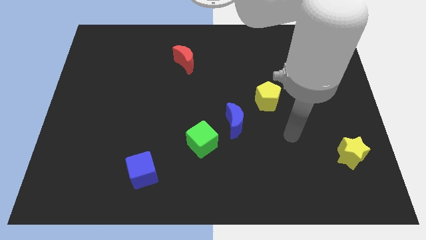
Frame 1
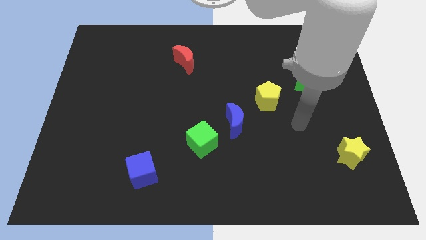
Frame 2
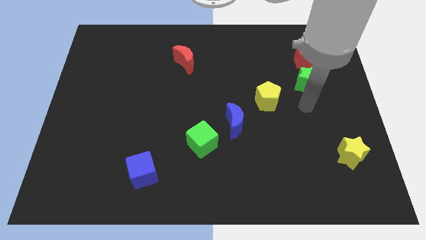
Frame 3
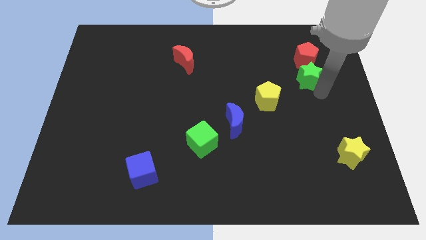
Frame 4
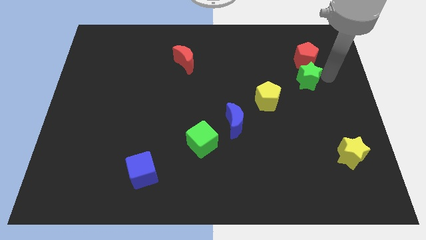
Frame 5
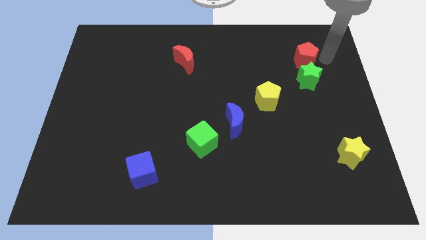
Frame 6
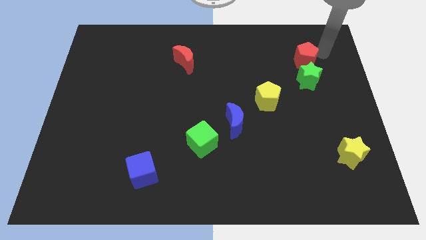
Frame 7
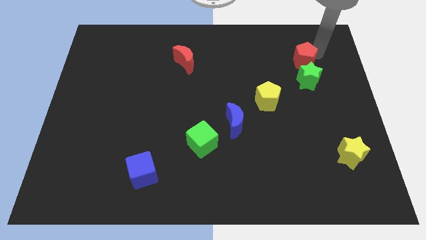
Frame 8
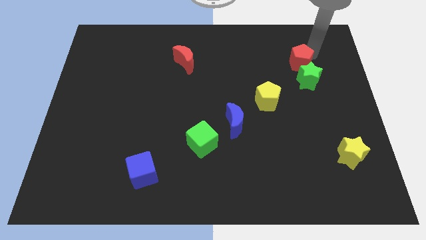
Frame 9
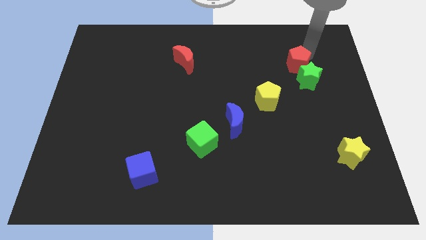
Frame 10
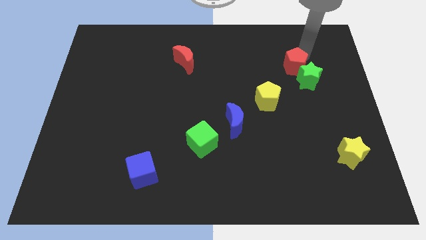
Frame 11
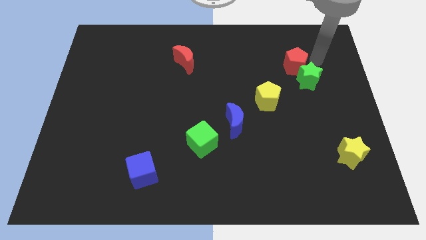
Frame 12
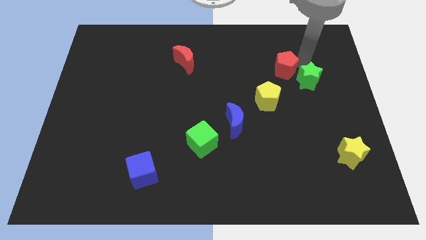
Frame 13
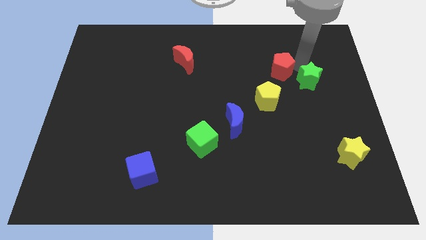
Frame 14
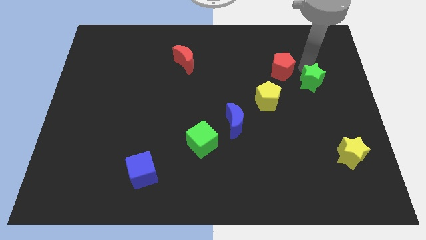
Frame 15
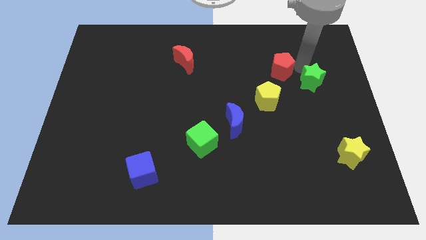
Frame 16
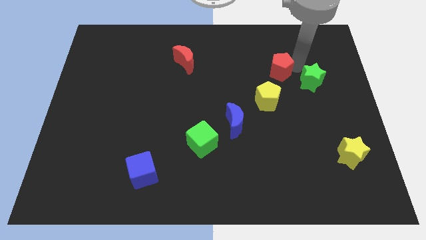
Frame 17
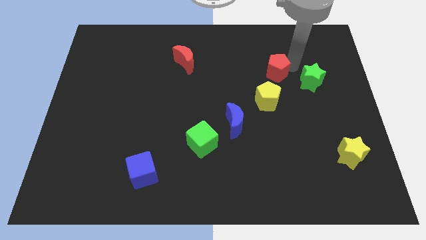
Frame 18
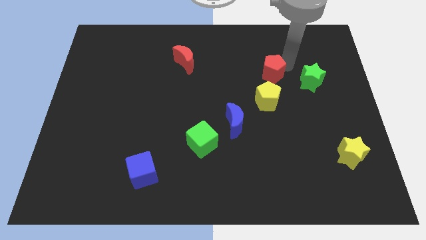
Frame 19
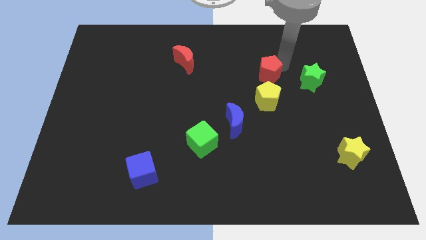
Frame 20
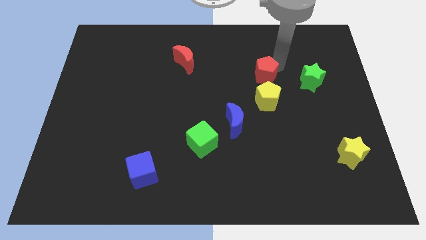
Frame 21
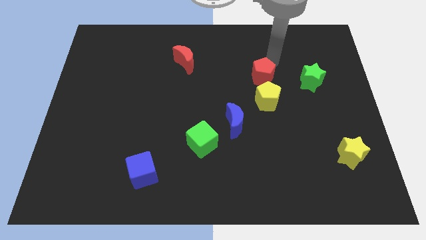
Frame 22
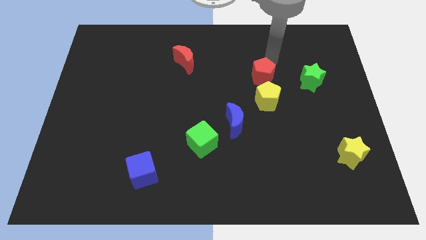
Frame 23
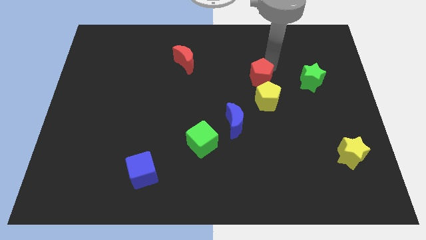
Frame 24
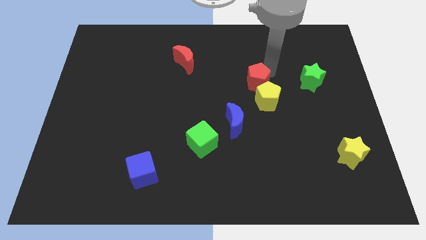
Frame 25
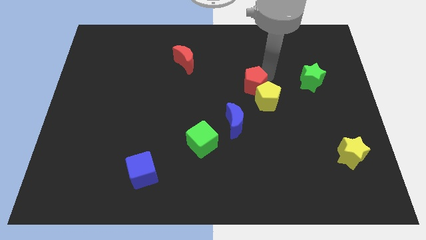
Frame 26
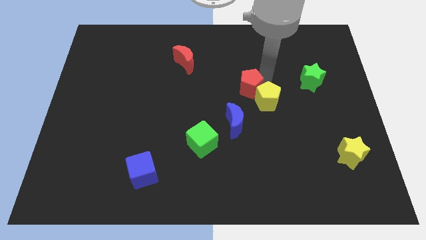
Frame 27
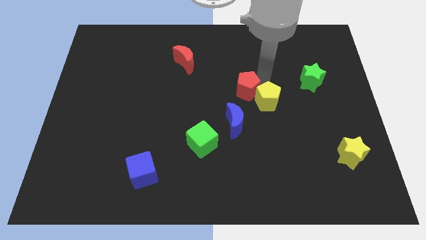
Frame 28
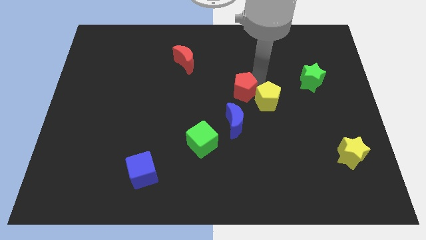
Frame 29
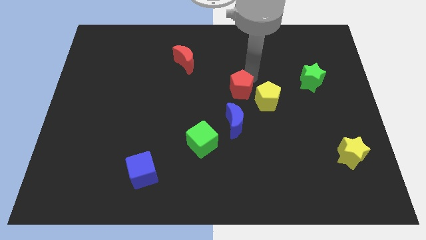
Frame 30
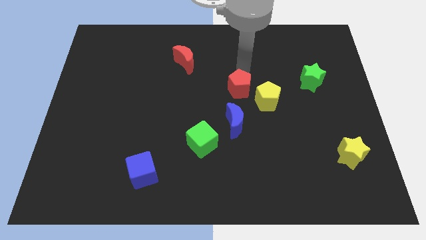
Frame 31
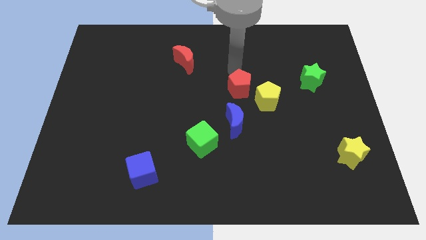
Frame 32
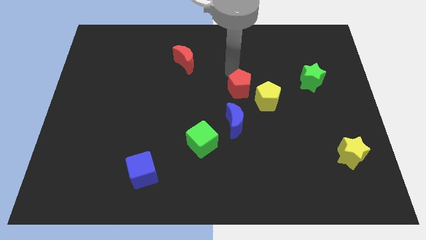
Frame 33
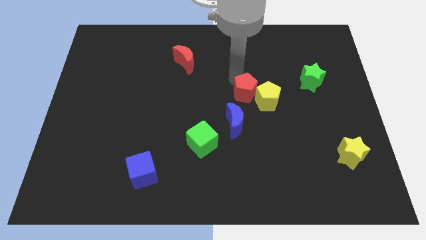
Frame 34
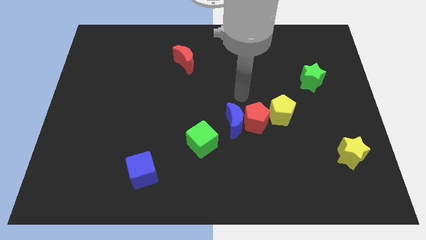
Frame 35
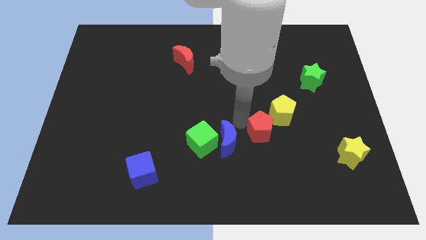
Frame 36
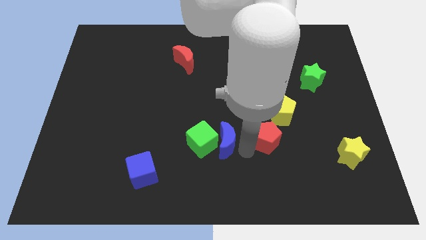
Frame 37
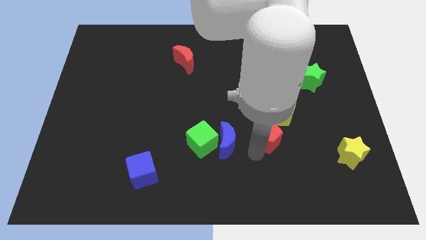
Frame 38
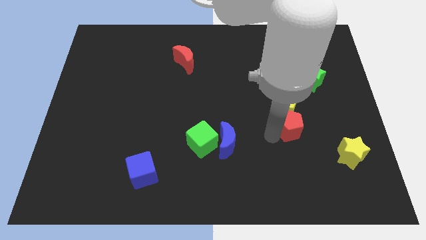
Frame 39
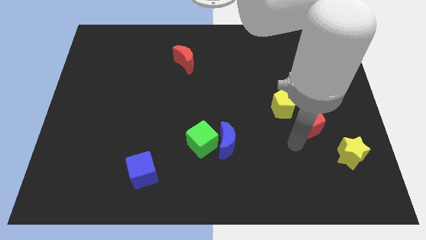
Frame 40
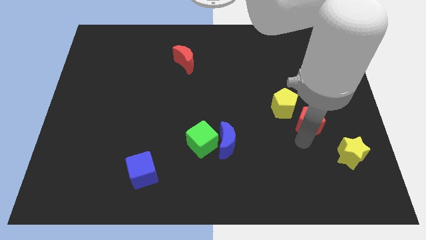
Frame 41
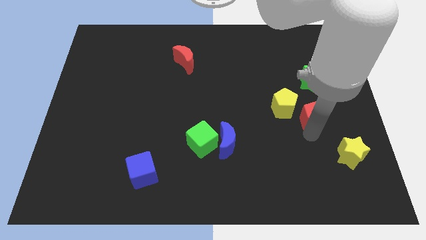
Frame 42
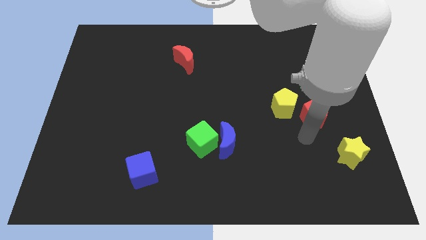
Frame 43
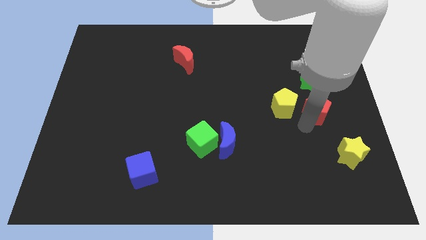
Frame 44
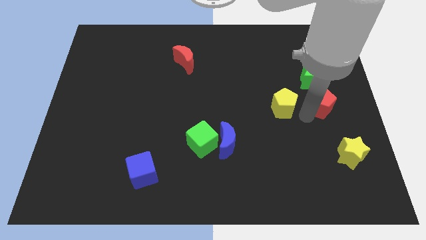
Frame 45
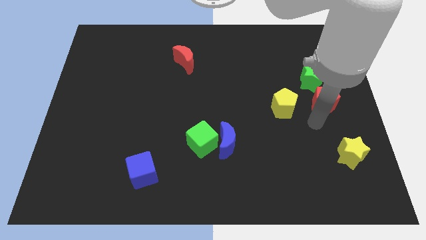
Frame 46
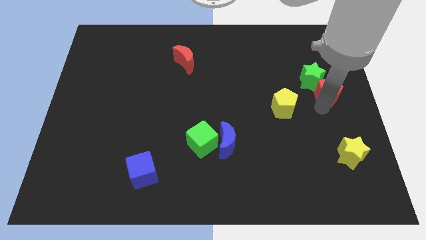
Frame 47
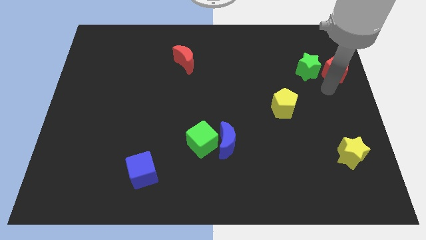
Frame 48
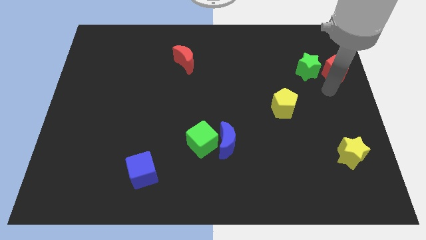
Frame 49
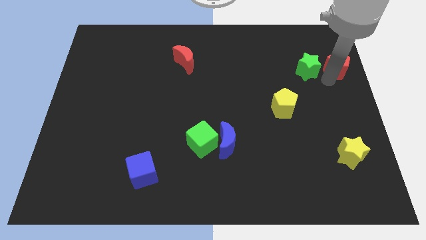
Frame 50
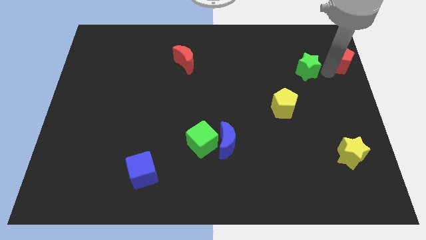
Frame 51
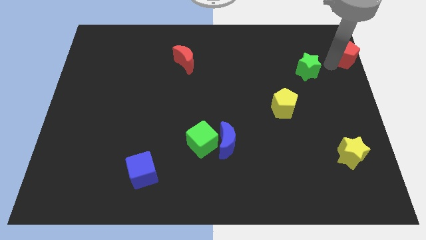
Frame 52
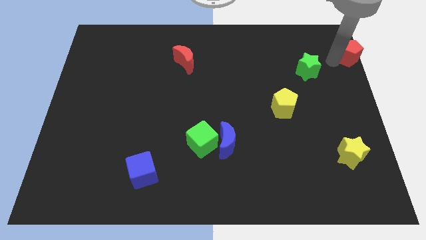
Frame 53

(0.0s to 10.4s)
push the red pentagon to the top right corner

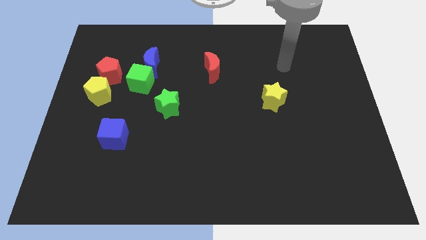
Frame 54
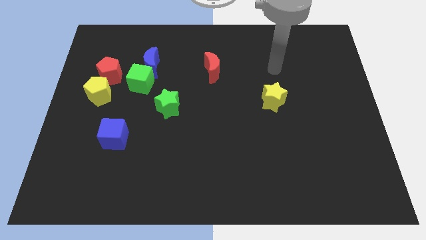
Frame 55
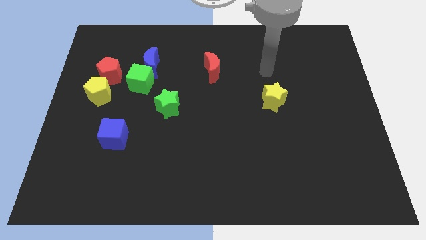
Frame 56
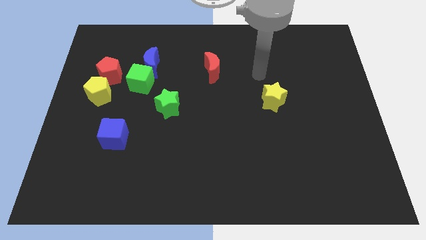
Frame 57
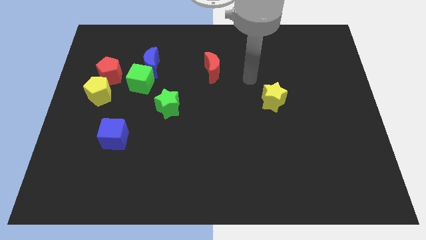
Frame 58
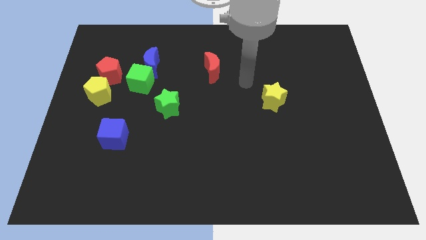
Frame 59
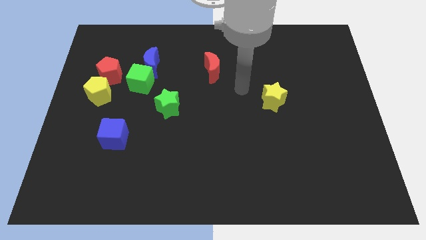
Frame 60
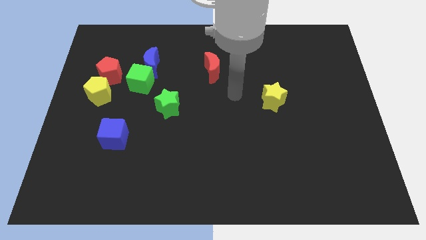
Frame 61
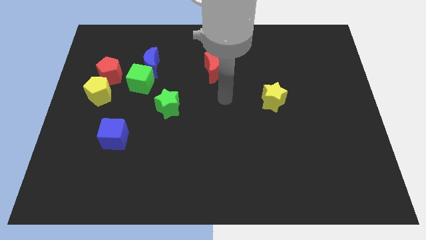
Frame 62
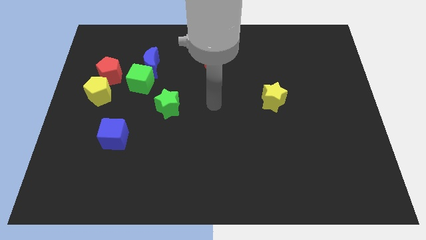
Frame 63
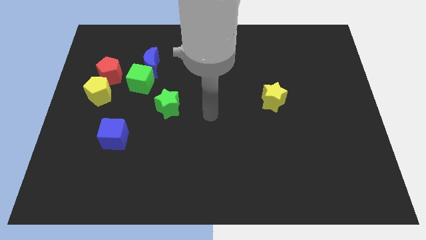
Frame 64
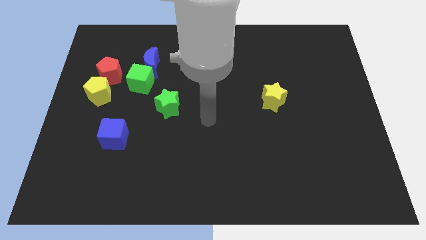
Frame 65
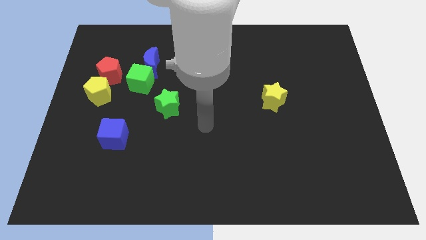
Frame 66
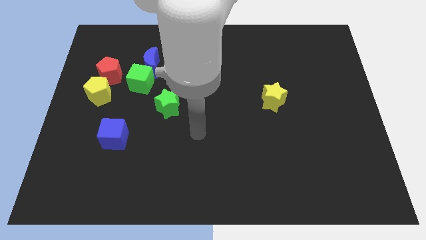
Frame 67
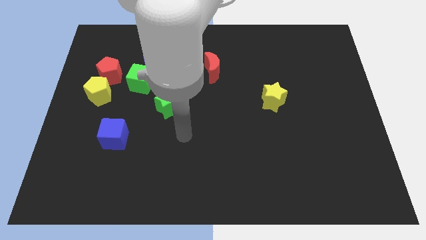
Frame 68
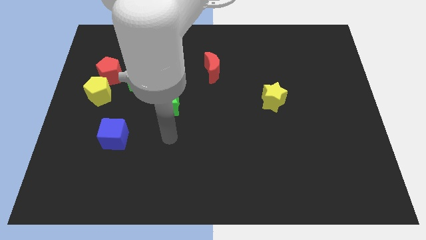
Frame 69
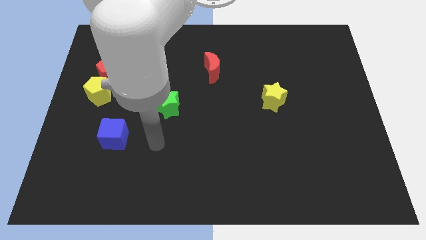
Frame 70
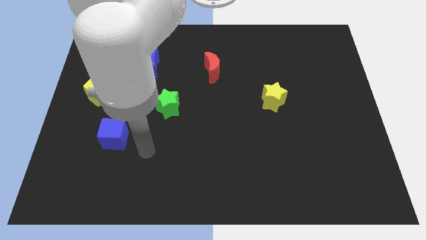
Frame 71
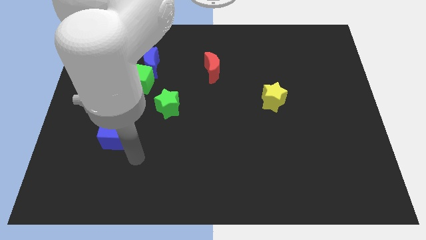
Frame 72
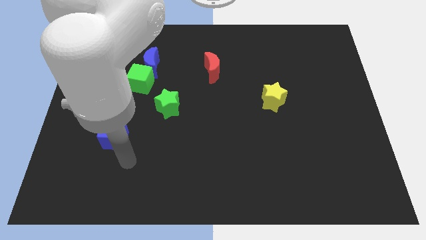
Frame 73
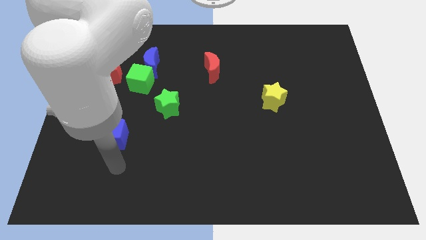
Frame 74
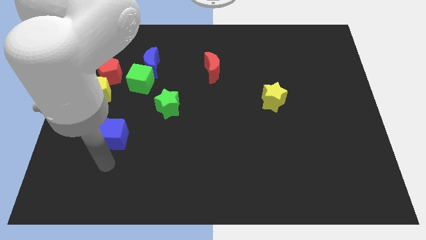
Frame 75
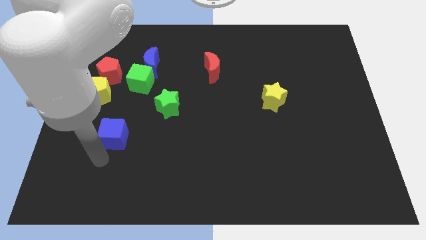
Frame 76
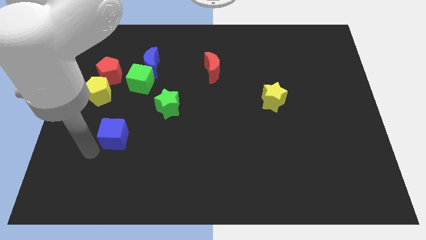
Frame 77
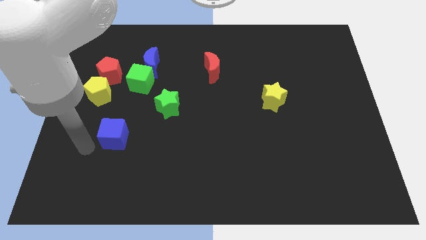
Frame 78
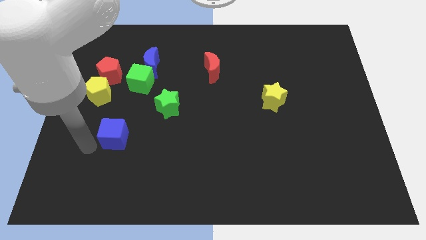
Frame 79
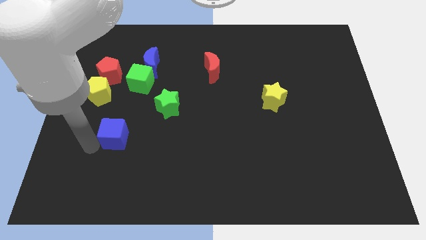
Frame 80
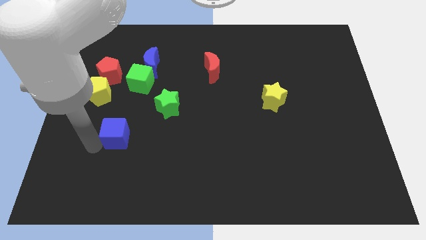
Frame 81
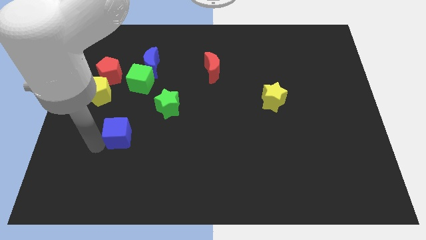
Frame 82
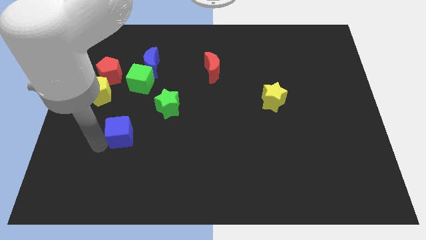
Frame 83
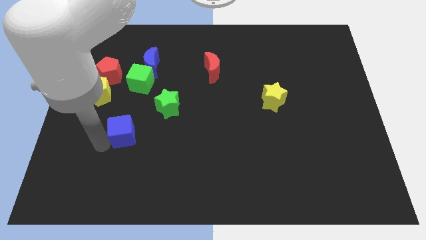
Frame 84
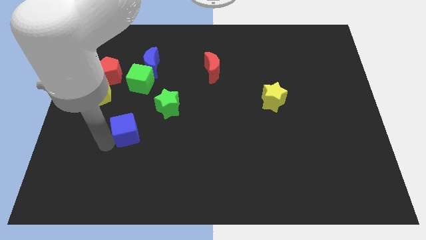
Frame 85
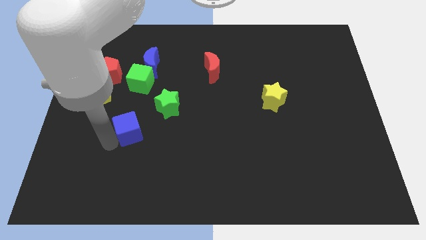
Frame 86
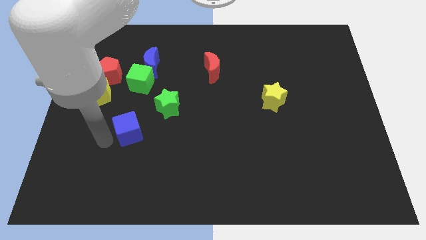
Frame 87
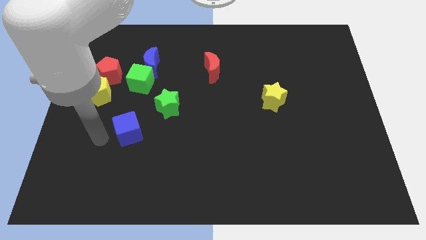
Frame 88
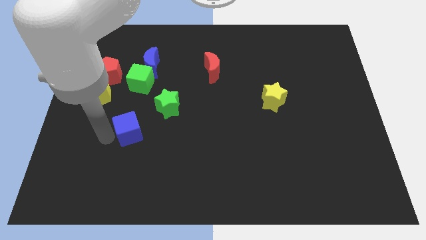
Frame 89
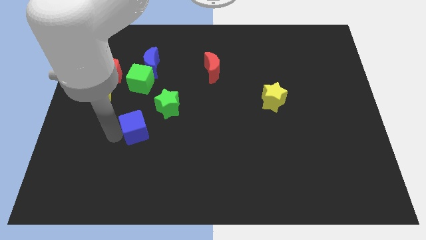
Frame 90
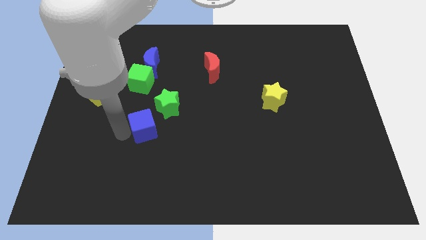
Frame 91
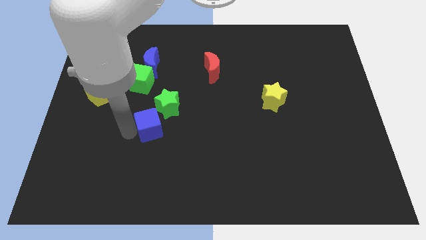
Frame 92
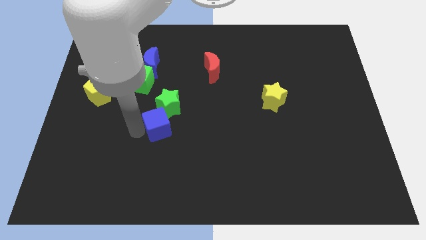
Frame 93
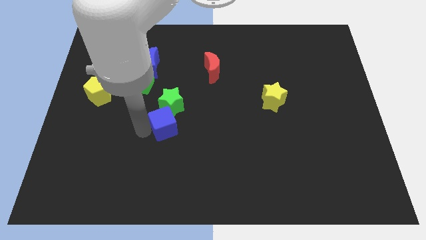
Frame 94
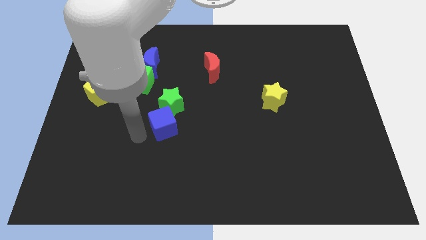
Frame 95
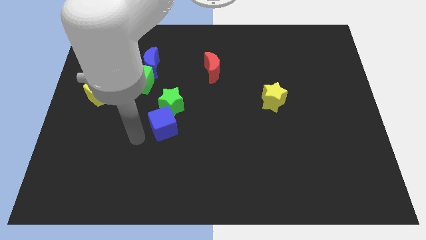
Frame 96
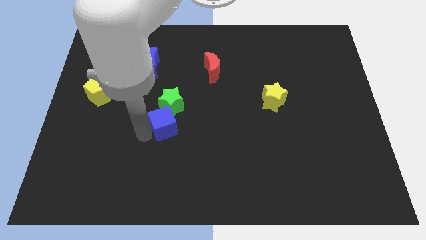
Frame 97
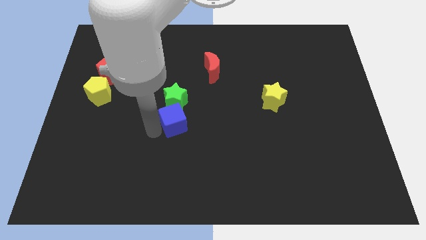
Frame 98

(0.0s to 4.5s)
move the blue cube to the center of the board
